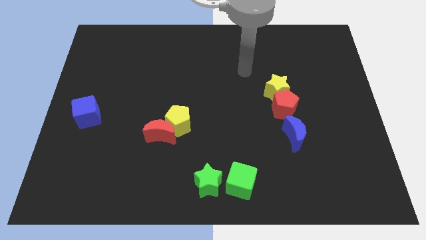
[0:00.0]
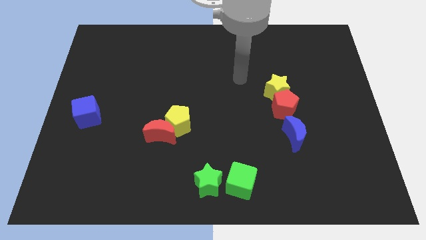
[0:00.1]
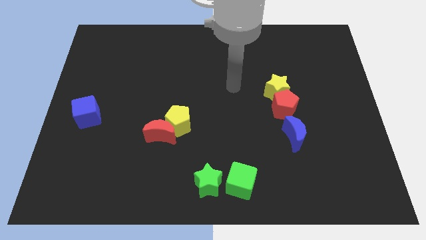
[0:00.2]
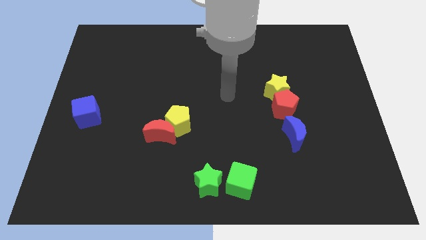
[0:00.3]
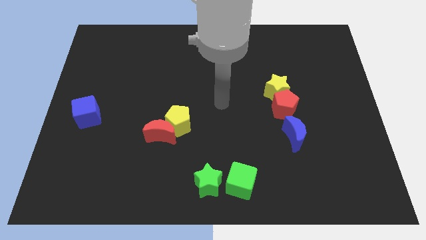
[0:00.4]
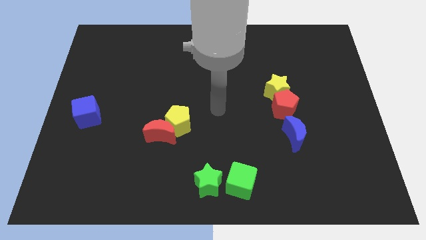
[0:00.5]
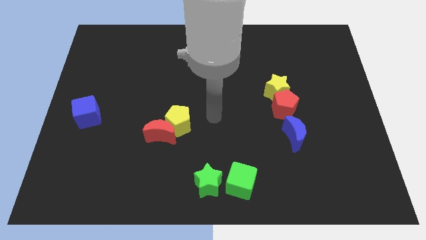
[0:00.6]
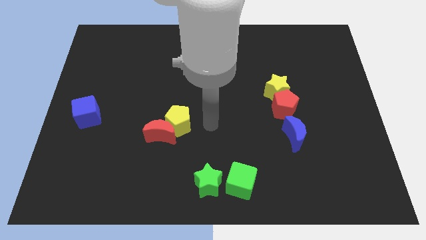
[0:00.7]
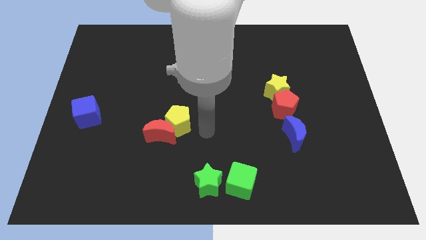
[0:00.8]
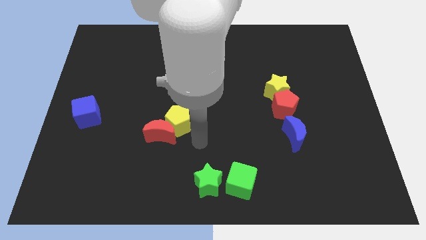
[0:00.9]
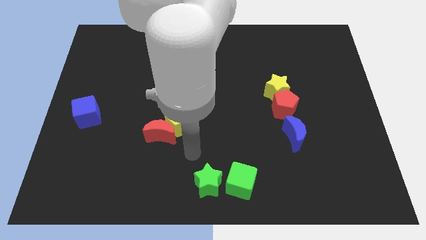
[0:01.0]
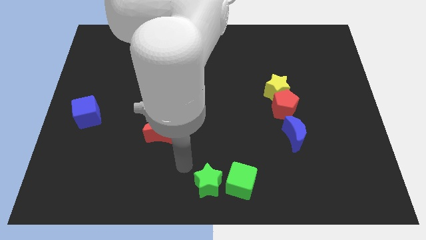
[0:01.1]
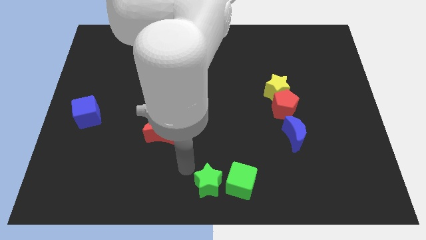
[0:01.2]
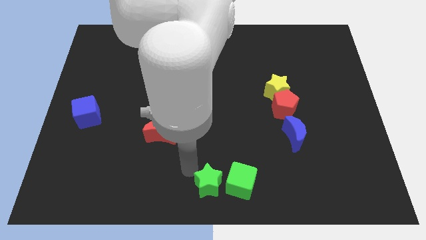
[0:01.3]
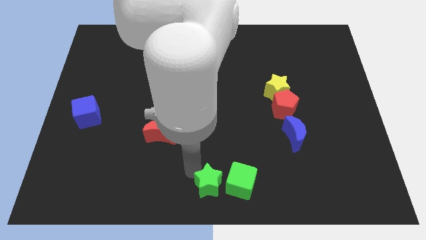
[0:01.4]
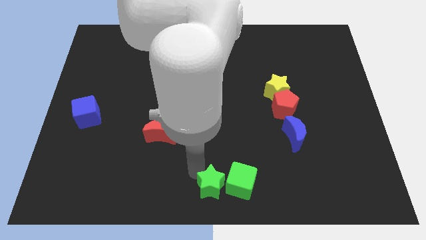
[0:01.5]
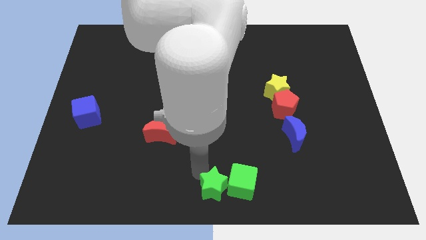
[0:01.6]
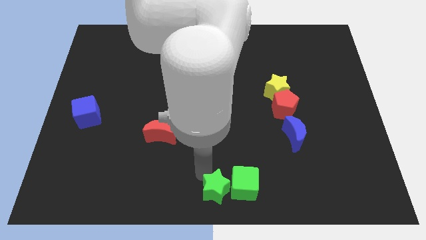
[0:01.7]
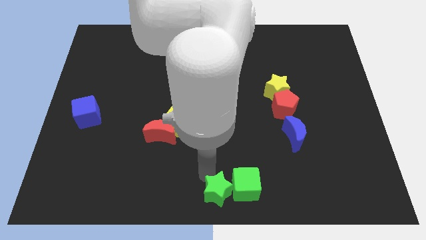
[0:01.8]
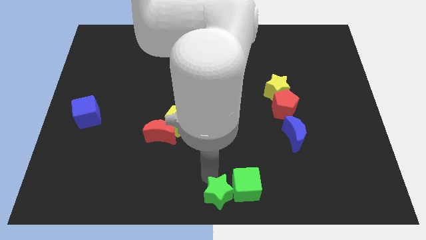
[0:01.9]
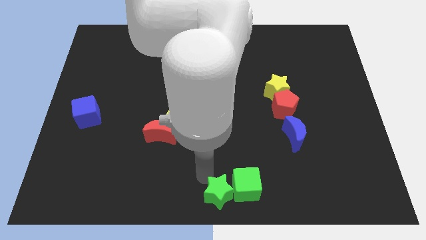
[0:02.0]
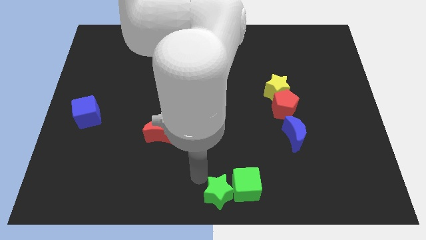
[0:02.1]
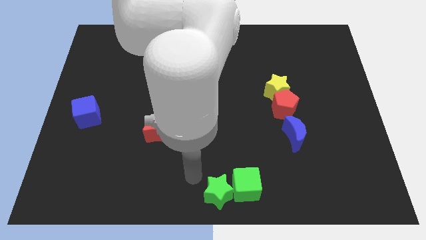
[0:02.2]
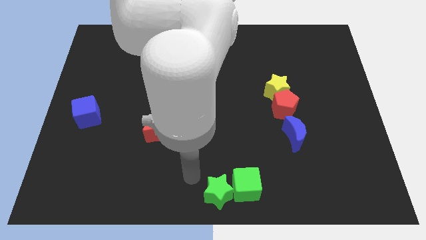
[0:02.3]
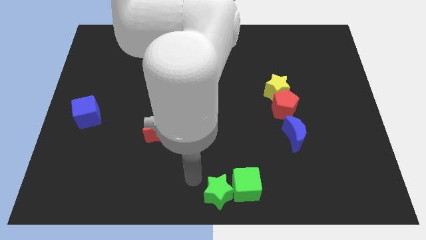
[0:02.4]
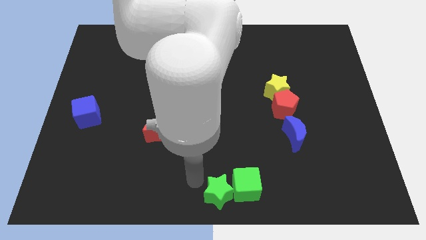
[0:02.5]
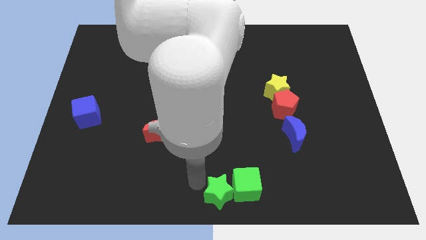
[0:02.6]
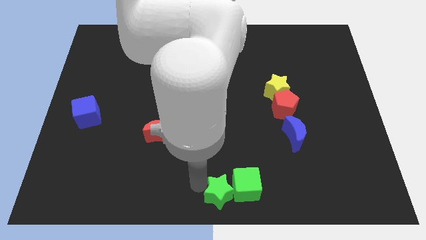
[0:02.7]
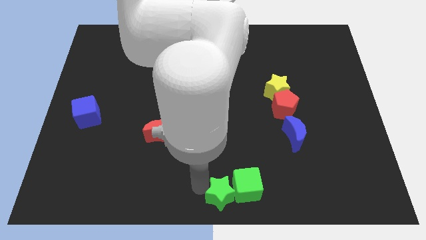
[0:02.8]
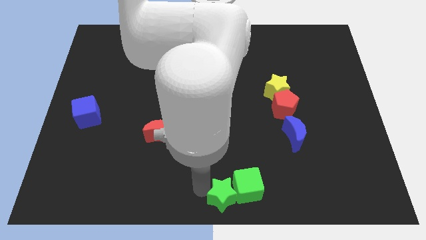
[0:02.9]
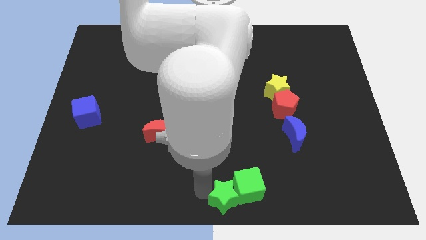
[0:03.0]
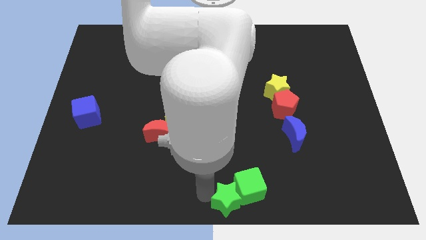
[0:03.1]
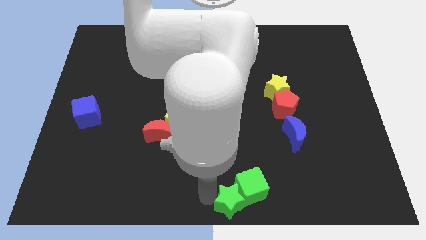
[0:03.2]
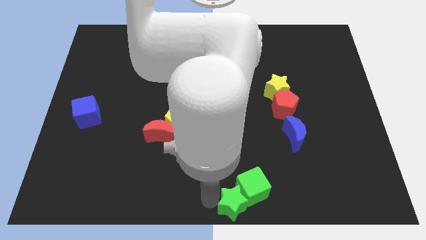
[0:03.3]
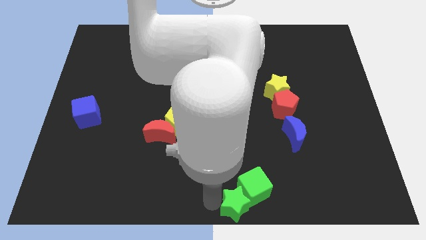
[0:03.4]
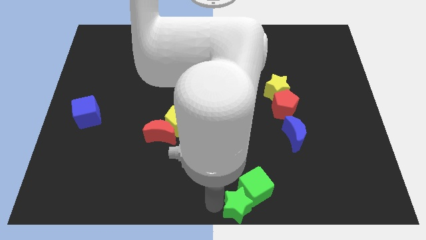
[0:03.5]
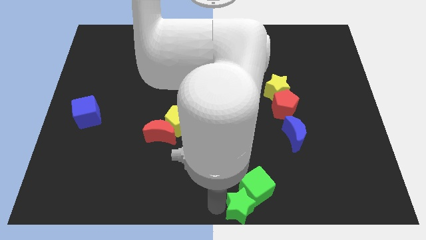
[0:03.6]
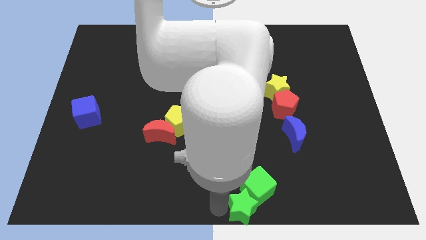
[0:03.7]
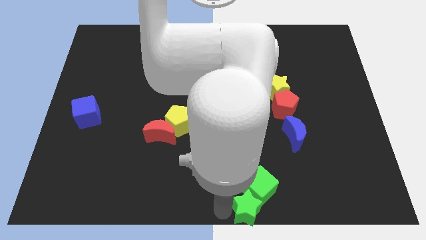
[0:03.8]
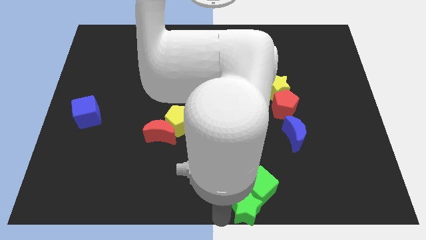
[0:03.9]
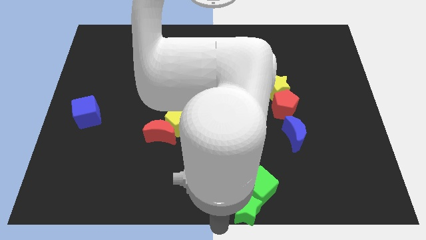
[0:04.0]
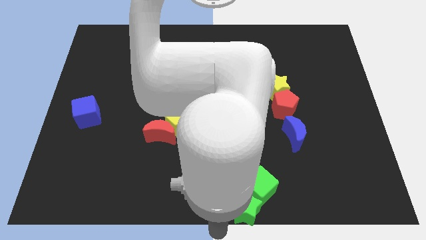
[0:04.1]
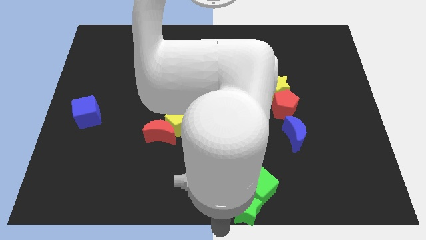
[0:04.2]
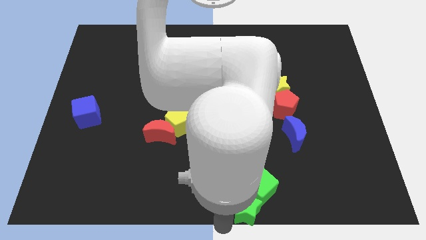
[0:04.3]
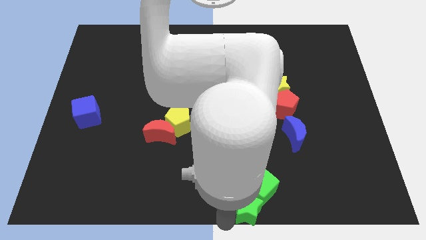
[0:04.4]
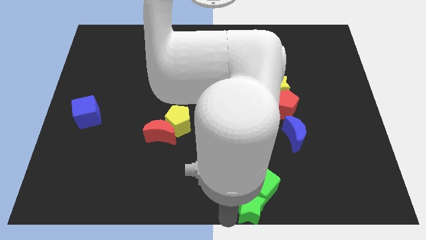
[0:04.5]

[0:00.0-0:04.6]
move the green star right a little bit

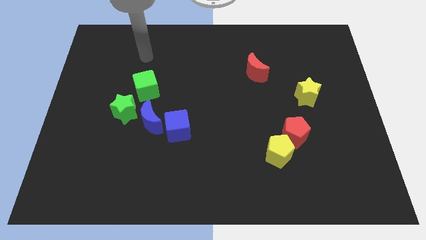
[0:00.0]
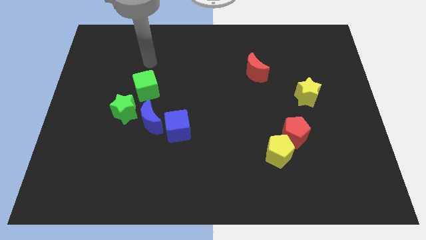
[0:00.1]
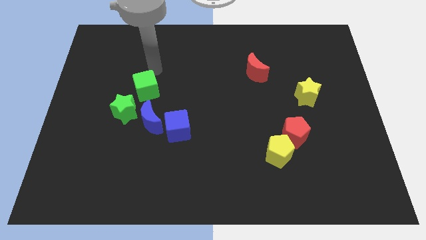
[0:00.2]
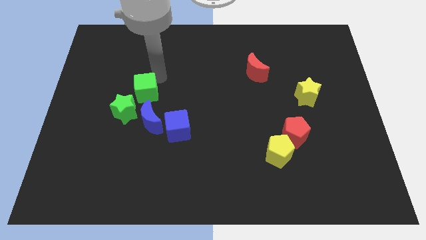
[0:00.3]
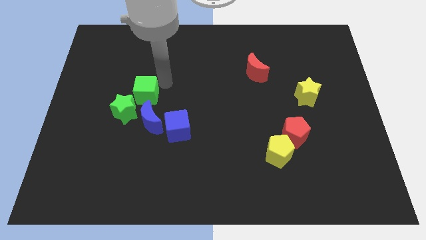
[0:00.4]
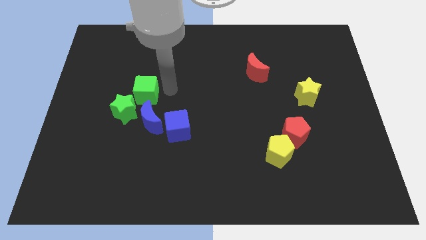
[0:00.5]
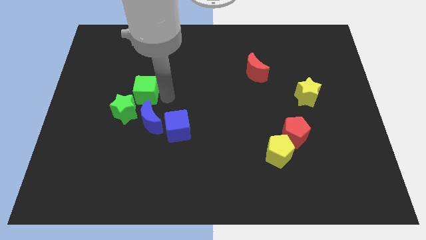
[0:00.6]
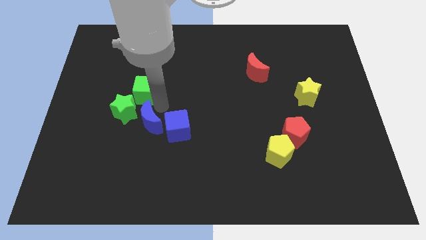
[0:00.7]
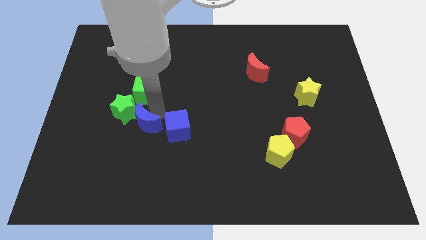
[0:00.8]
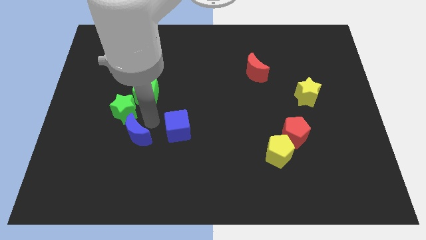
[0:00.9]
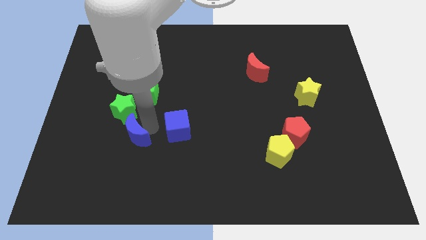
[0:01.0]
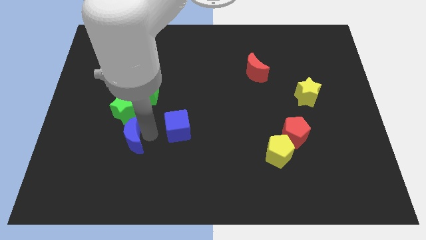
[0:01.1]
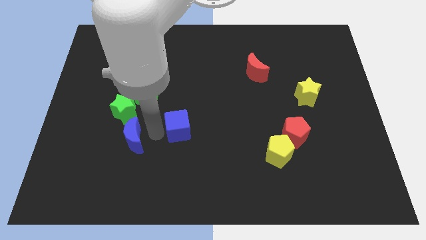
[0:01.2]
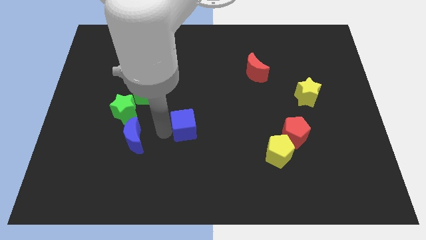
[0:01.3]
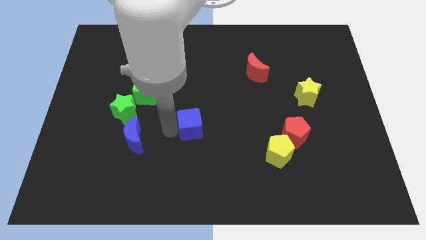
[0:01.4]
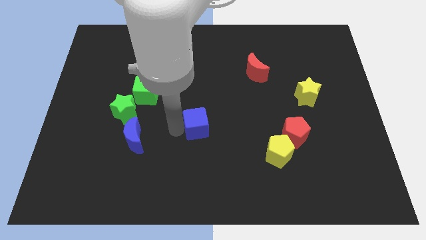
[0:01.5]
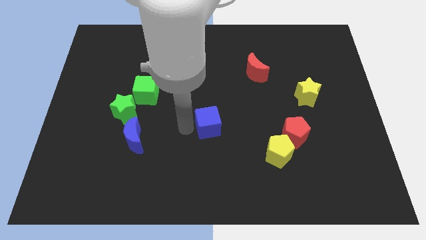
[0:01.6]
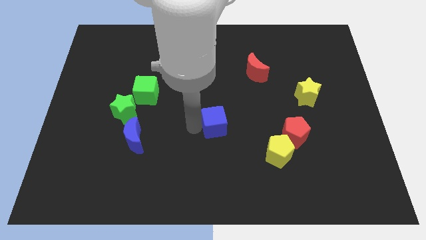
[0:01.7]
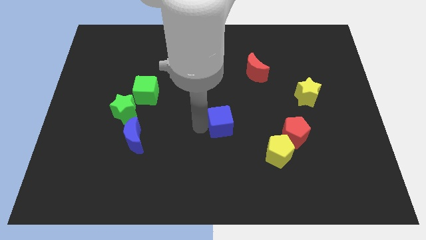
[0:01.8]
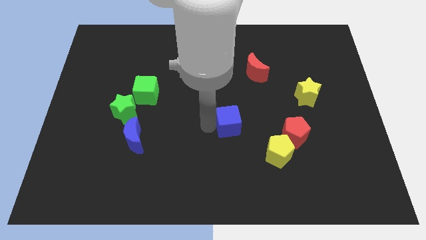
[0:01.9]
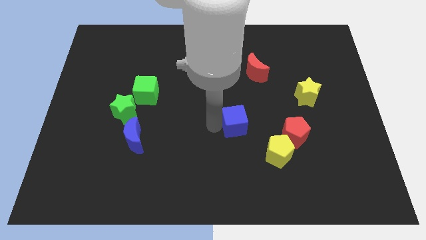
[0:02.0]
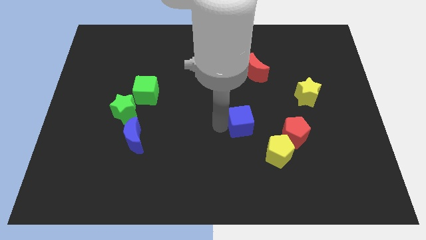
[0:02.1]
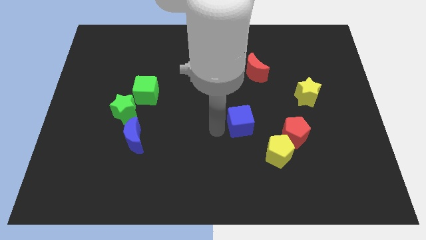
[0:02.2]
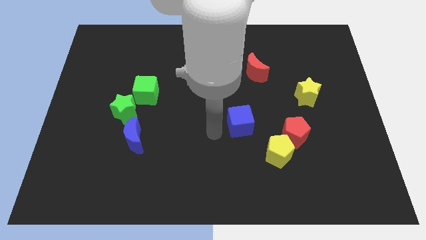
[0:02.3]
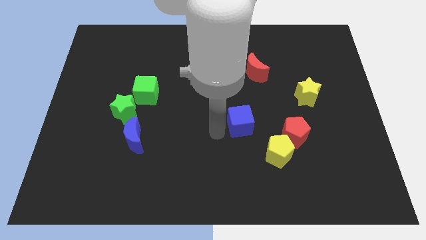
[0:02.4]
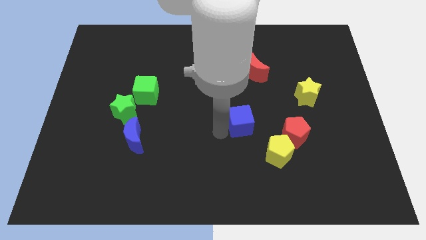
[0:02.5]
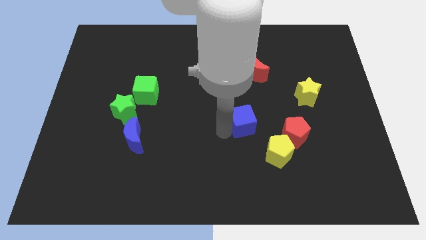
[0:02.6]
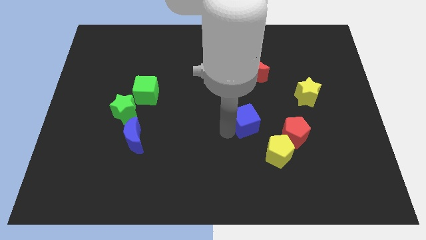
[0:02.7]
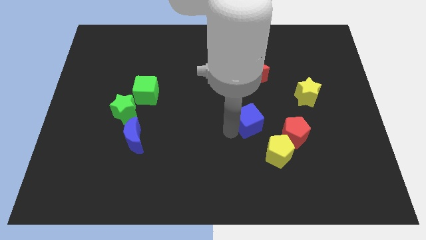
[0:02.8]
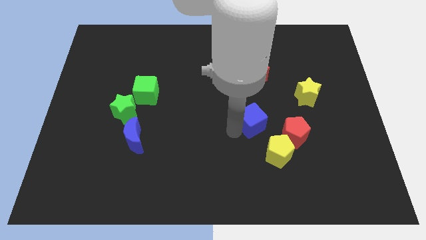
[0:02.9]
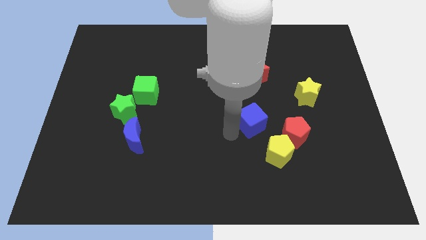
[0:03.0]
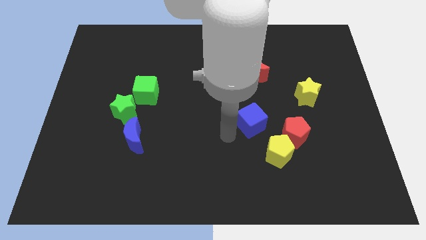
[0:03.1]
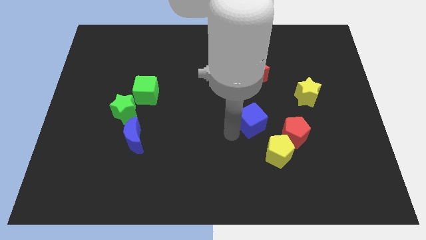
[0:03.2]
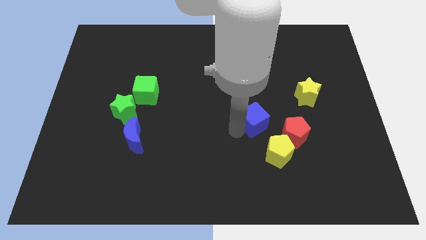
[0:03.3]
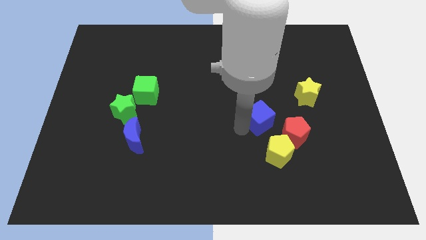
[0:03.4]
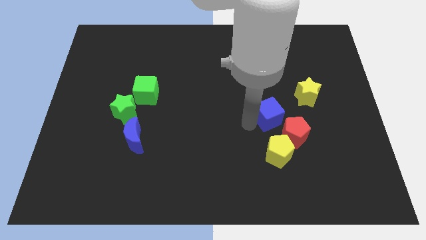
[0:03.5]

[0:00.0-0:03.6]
push the blue cube to the right

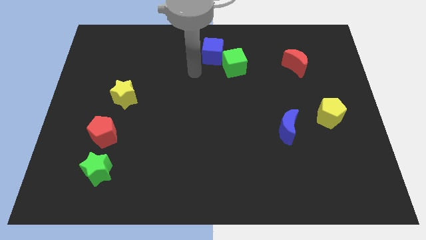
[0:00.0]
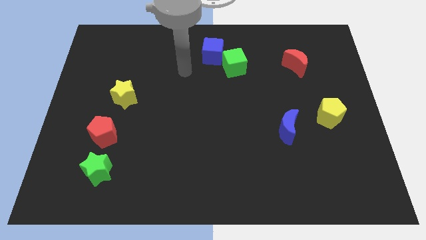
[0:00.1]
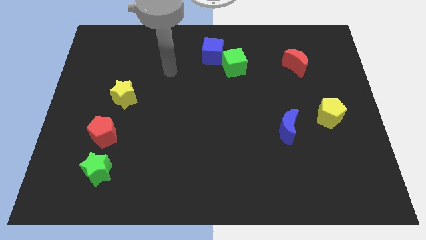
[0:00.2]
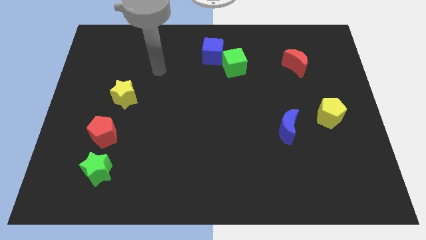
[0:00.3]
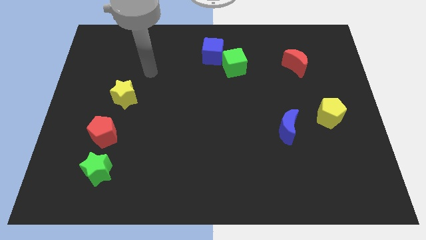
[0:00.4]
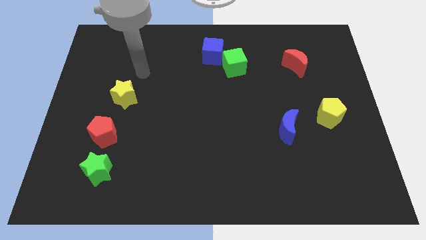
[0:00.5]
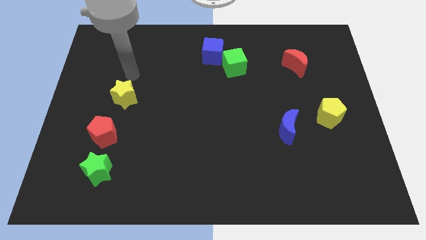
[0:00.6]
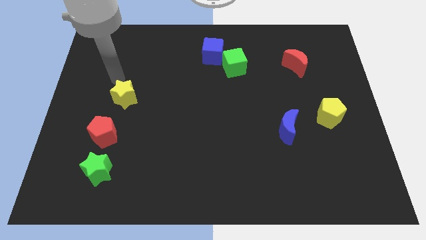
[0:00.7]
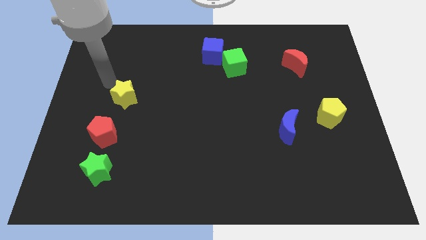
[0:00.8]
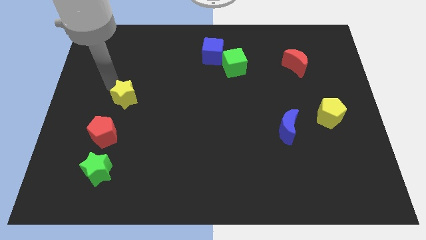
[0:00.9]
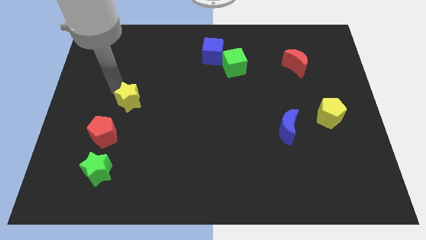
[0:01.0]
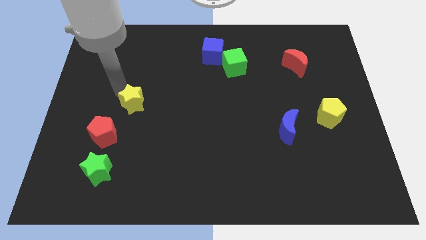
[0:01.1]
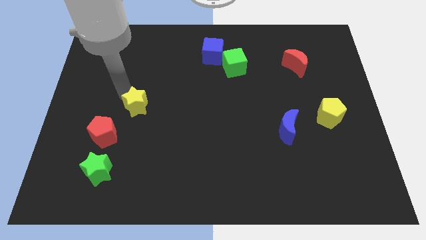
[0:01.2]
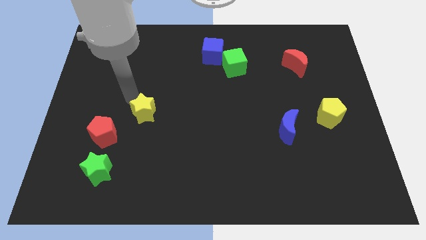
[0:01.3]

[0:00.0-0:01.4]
push the yellow star somewhat down and to the right
